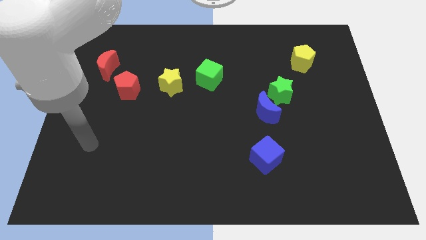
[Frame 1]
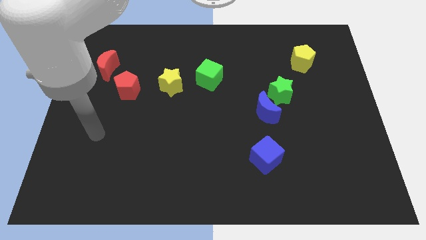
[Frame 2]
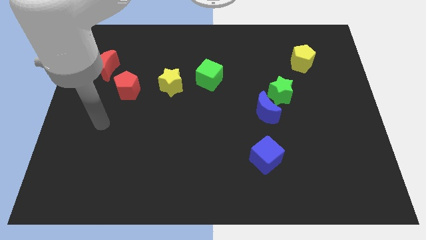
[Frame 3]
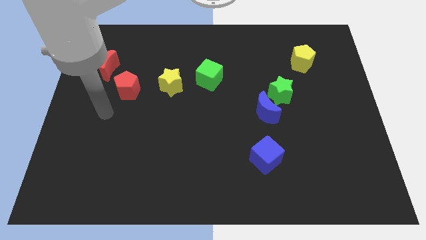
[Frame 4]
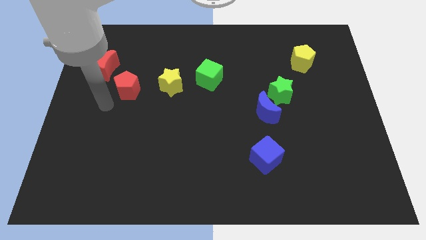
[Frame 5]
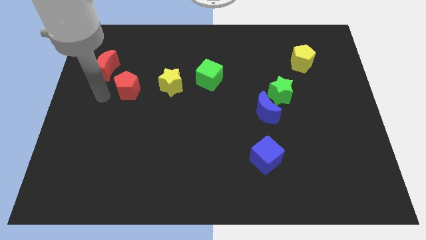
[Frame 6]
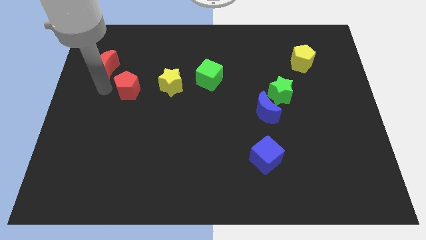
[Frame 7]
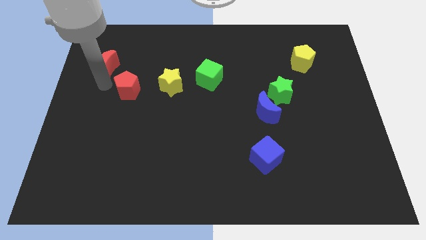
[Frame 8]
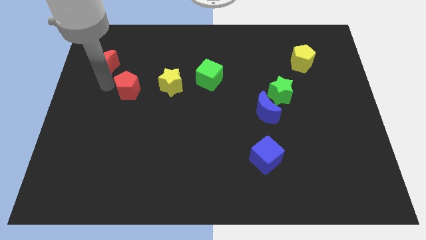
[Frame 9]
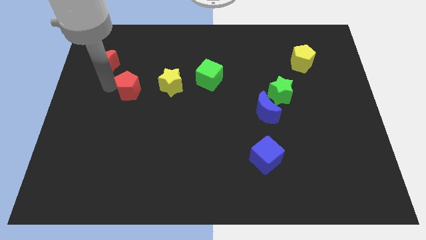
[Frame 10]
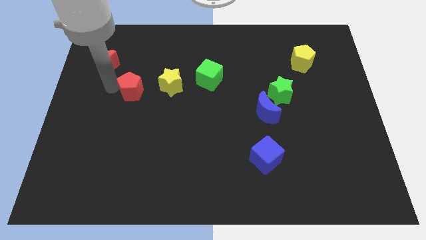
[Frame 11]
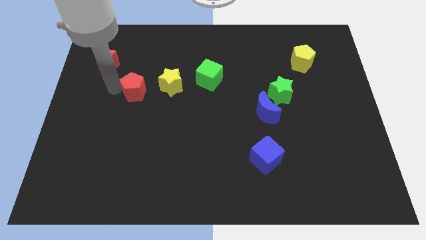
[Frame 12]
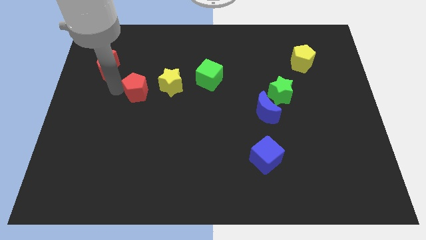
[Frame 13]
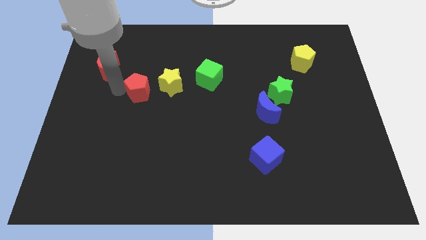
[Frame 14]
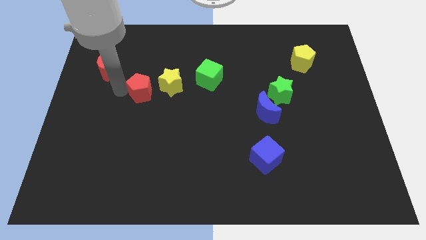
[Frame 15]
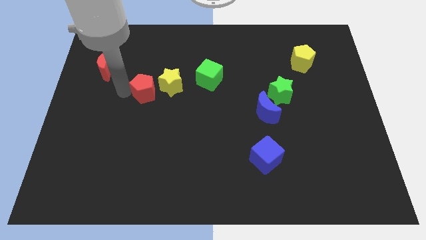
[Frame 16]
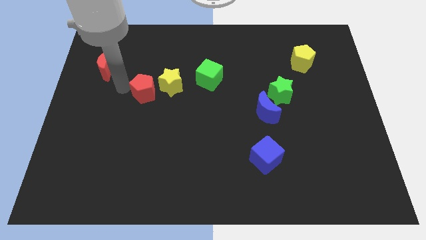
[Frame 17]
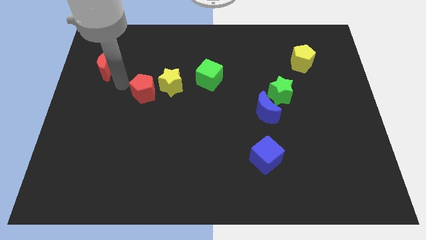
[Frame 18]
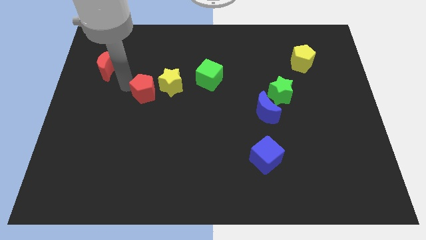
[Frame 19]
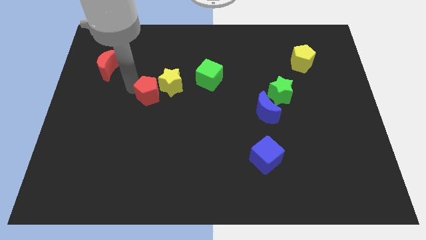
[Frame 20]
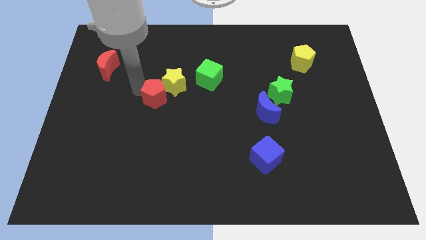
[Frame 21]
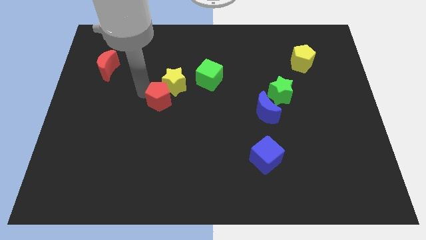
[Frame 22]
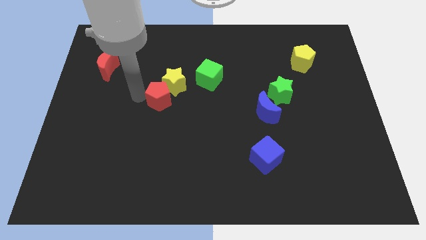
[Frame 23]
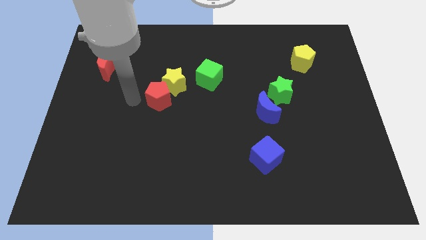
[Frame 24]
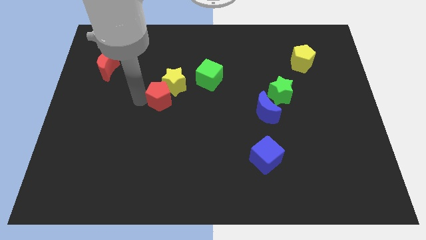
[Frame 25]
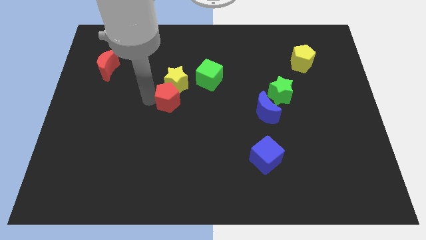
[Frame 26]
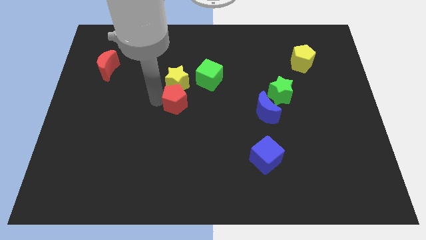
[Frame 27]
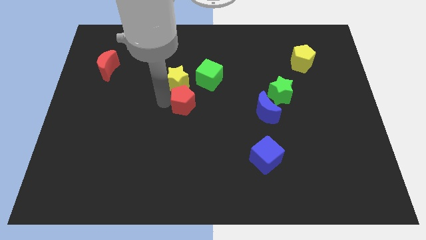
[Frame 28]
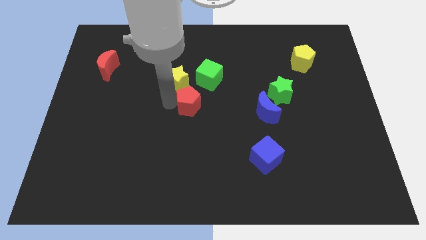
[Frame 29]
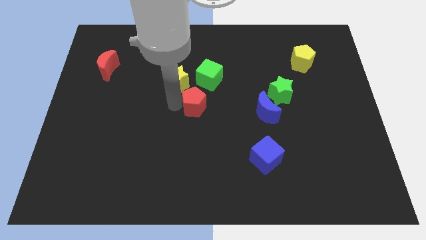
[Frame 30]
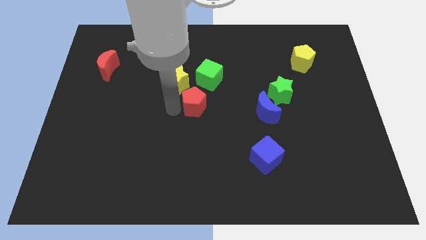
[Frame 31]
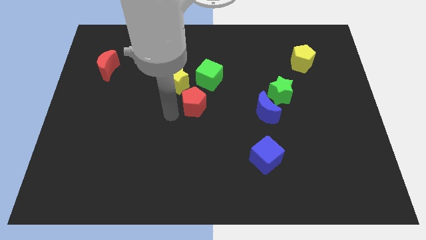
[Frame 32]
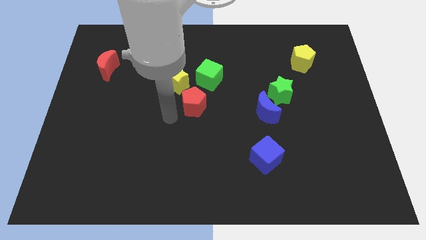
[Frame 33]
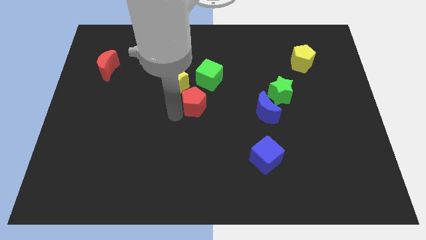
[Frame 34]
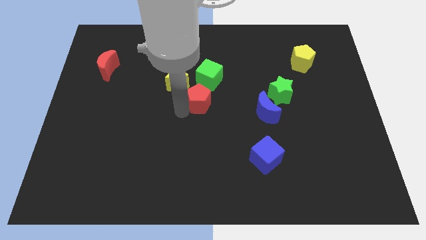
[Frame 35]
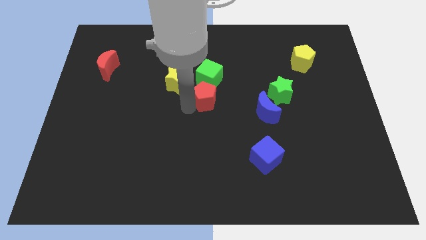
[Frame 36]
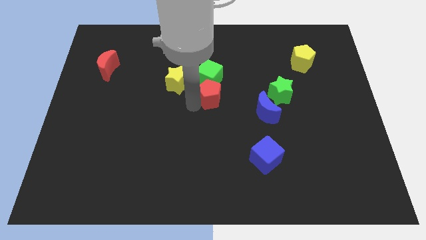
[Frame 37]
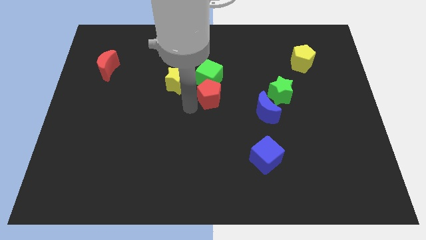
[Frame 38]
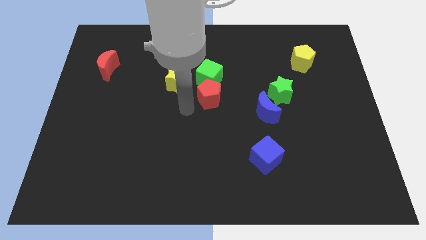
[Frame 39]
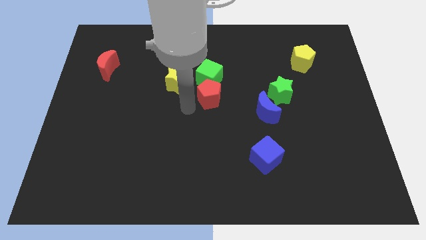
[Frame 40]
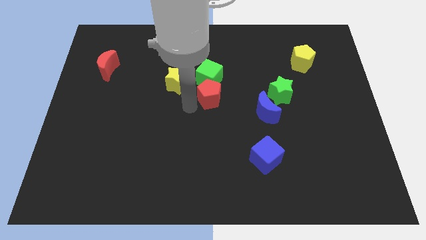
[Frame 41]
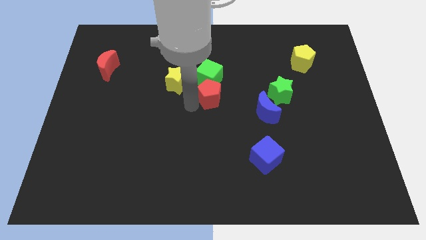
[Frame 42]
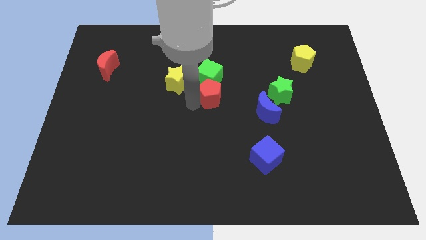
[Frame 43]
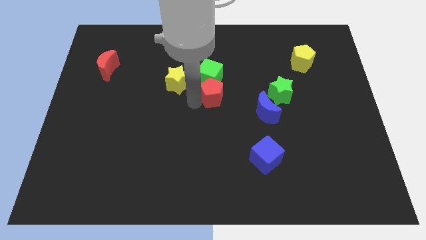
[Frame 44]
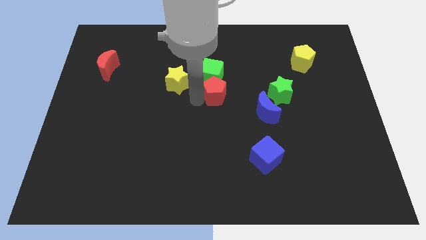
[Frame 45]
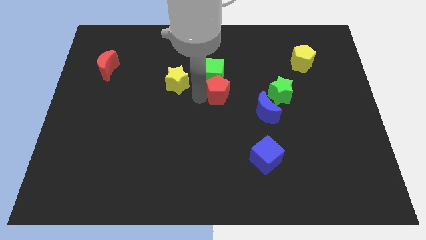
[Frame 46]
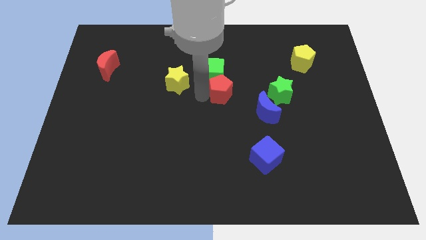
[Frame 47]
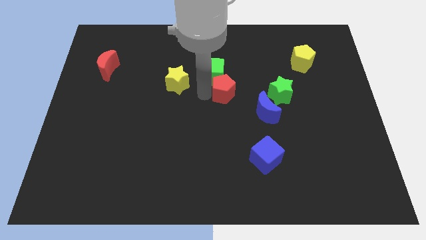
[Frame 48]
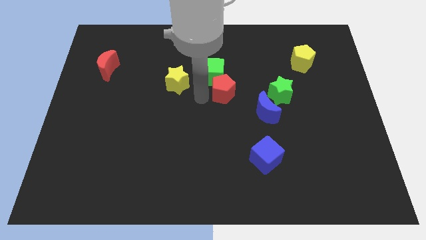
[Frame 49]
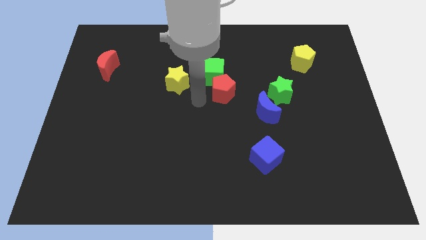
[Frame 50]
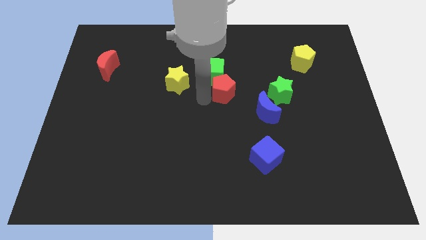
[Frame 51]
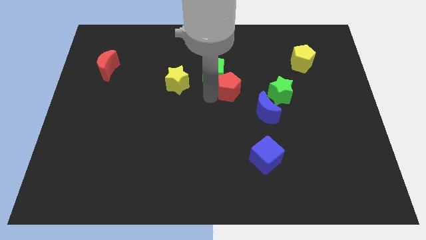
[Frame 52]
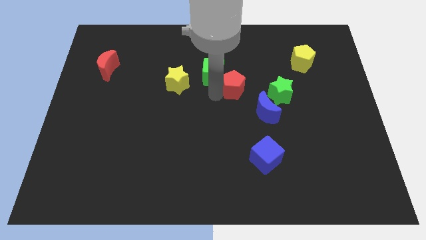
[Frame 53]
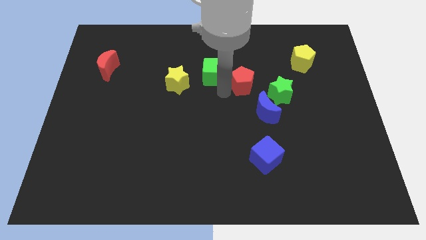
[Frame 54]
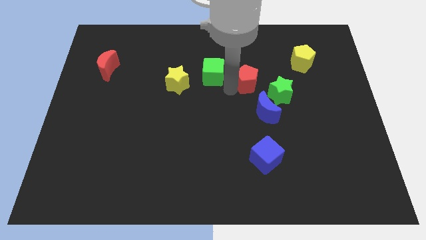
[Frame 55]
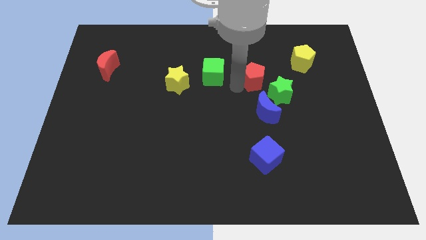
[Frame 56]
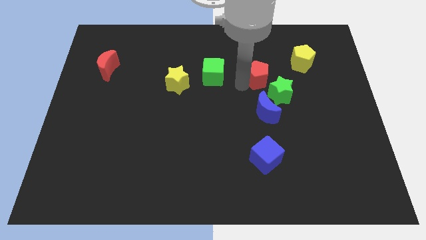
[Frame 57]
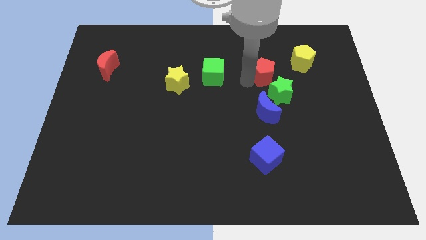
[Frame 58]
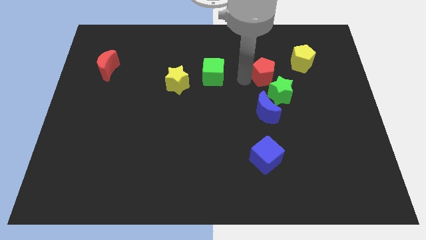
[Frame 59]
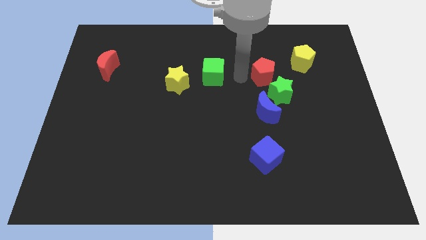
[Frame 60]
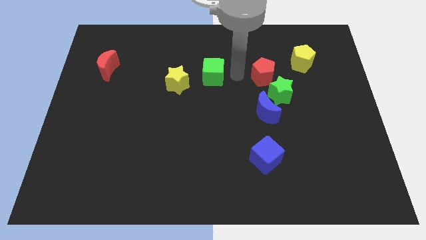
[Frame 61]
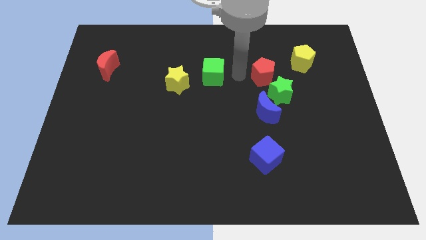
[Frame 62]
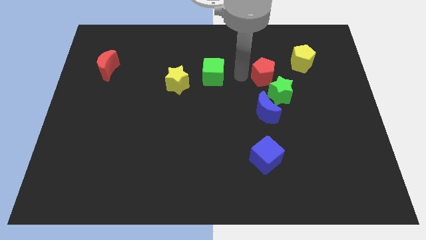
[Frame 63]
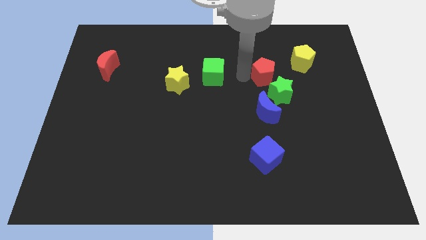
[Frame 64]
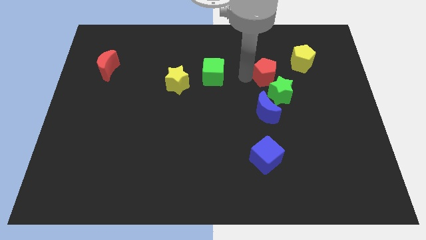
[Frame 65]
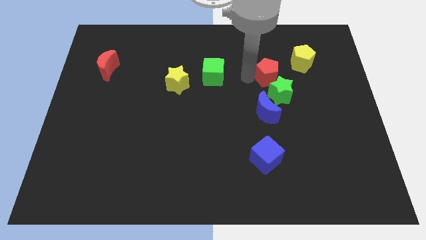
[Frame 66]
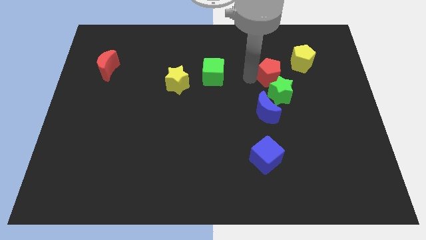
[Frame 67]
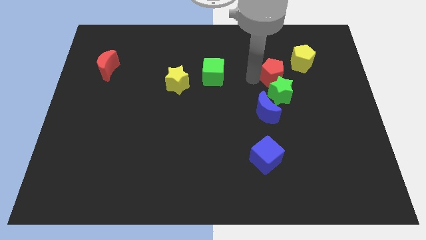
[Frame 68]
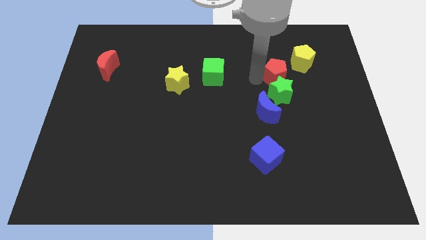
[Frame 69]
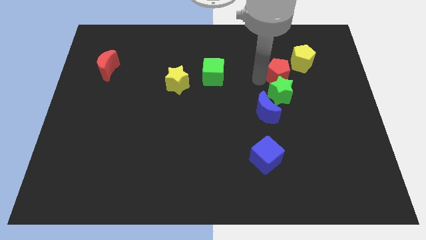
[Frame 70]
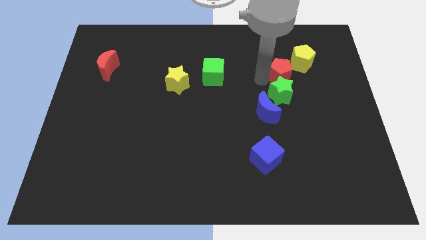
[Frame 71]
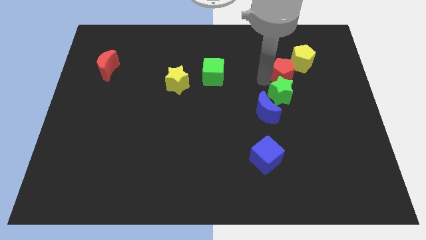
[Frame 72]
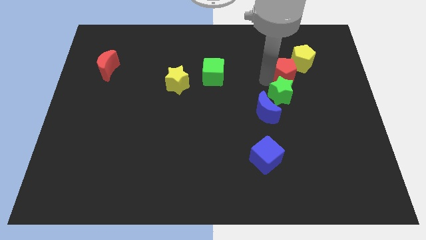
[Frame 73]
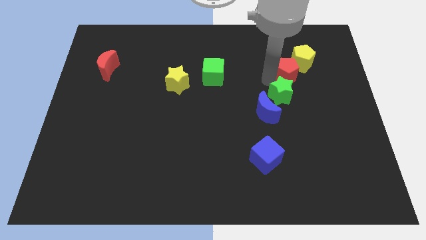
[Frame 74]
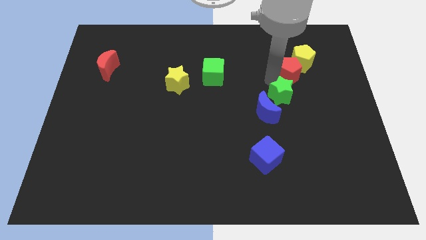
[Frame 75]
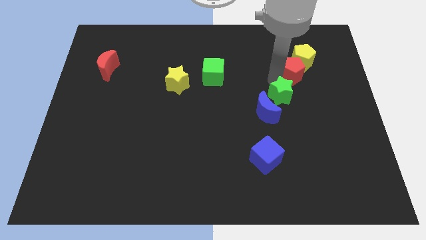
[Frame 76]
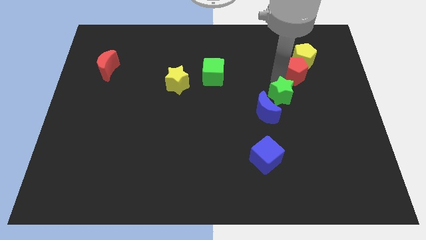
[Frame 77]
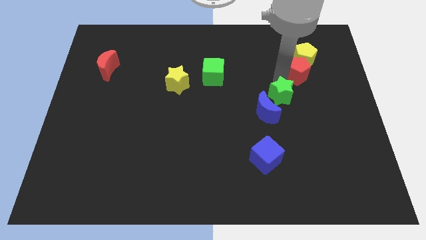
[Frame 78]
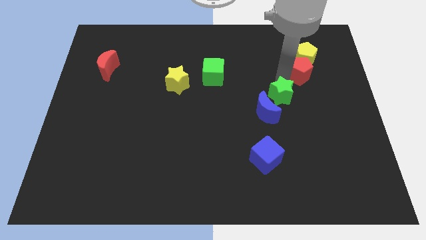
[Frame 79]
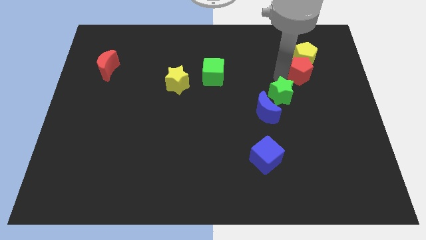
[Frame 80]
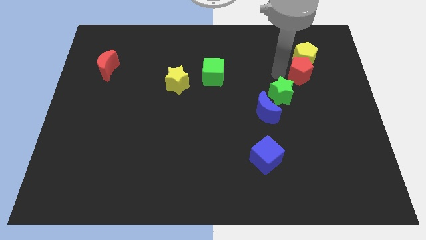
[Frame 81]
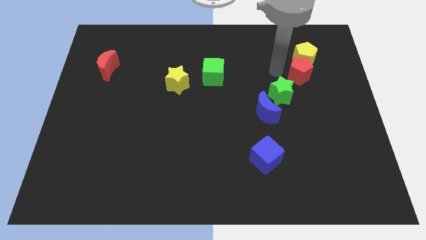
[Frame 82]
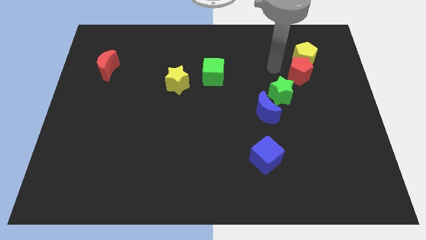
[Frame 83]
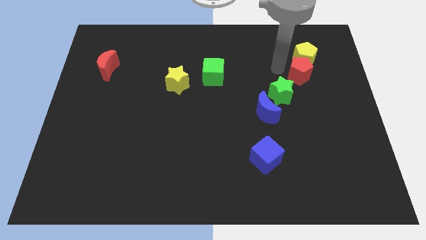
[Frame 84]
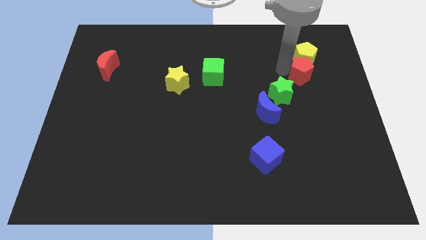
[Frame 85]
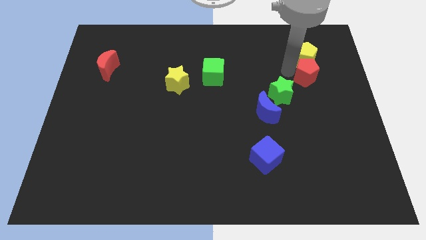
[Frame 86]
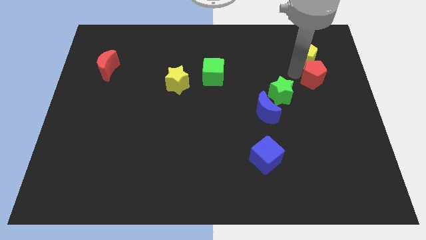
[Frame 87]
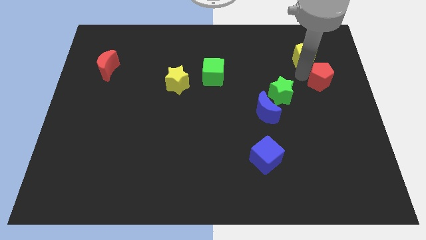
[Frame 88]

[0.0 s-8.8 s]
move the red pentagon to the right side of the board
